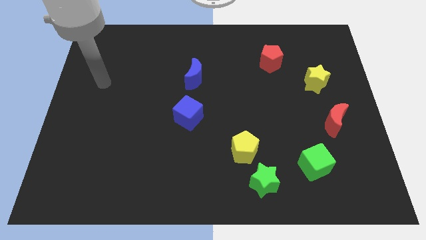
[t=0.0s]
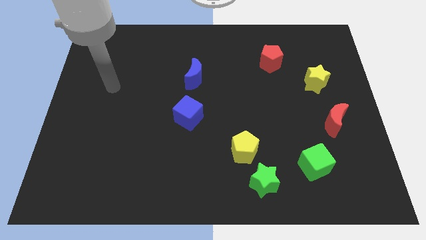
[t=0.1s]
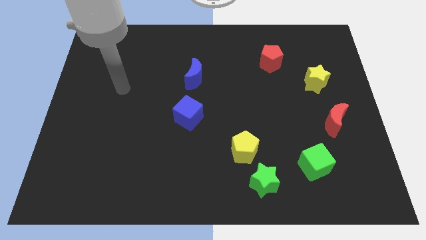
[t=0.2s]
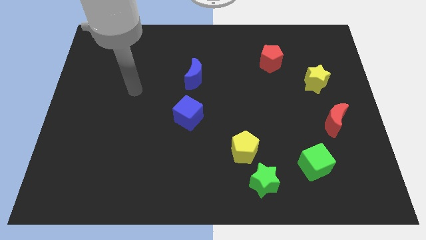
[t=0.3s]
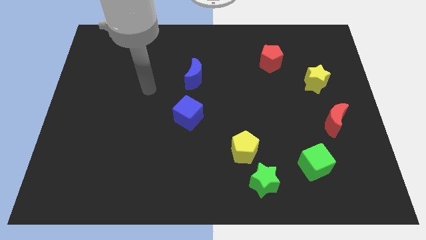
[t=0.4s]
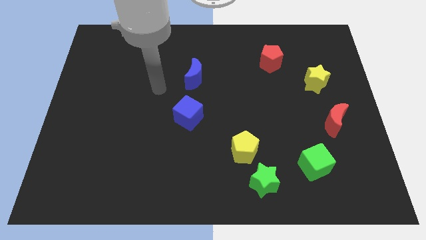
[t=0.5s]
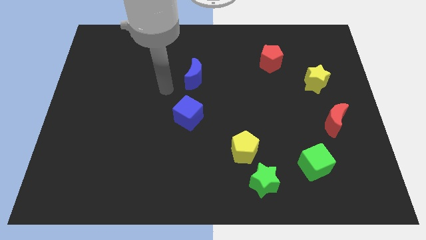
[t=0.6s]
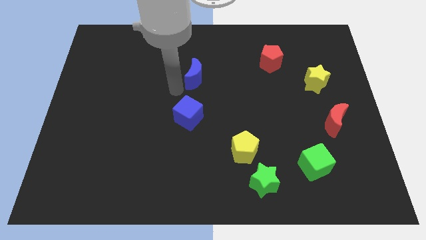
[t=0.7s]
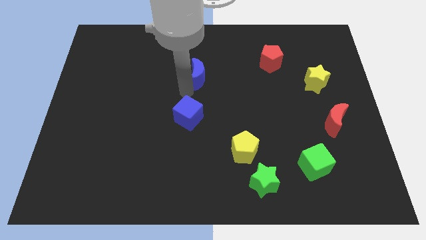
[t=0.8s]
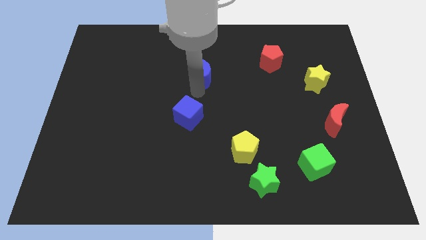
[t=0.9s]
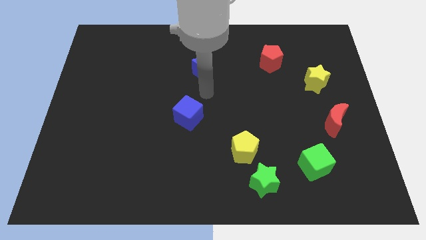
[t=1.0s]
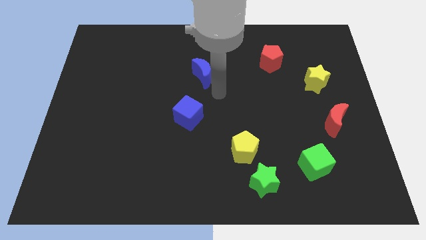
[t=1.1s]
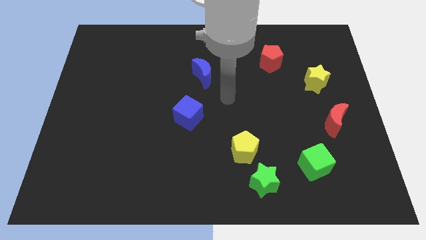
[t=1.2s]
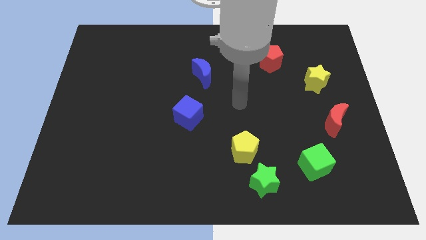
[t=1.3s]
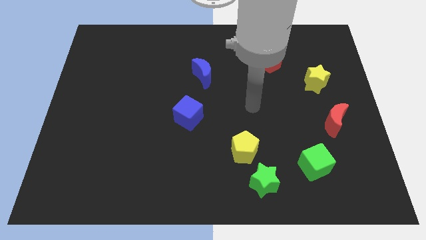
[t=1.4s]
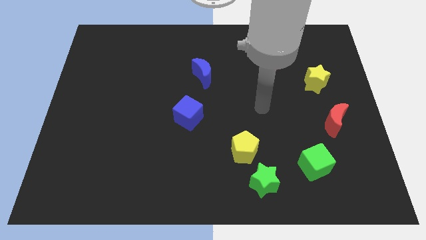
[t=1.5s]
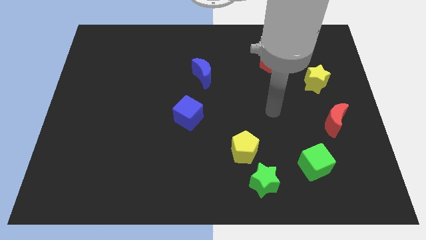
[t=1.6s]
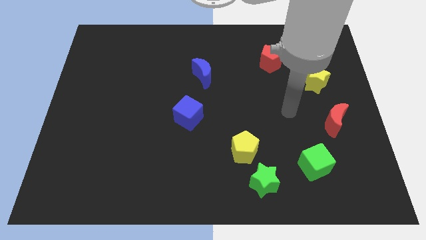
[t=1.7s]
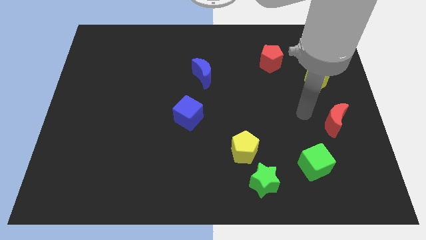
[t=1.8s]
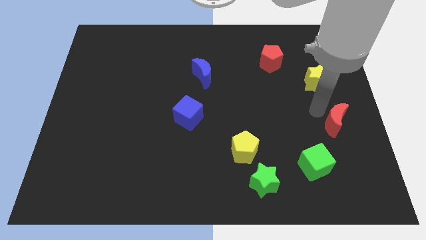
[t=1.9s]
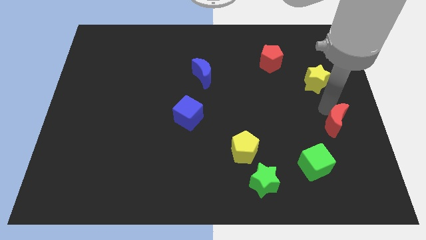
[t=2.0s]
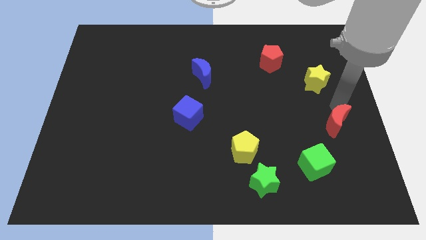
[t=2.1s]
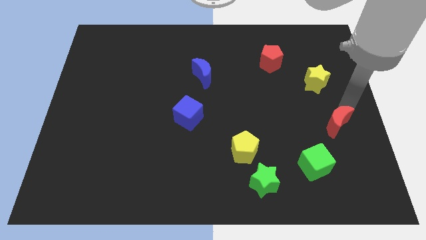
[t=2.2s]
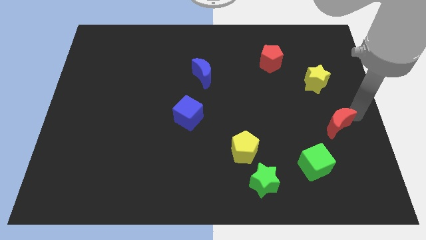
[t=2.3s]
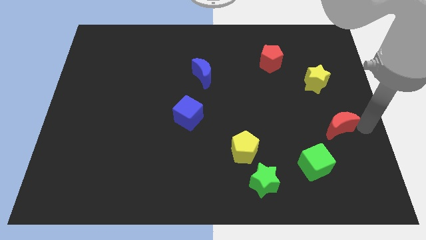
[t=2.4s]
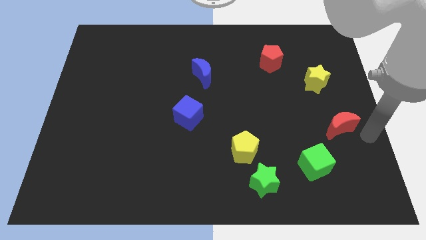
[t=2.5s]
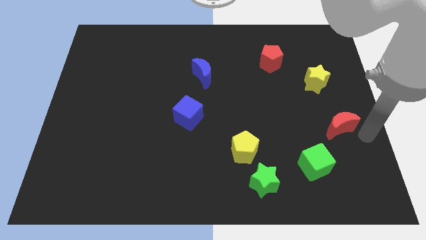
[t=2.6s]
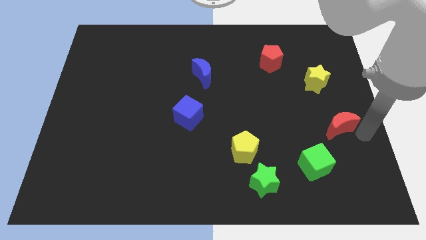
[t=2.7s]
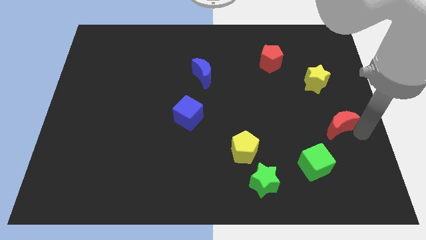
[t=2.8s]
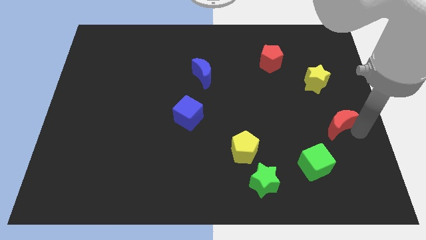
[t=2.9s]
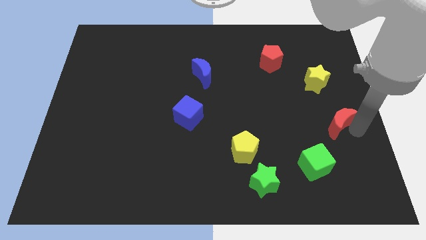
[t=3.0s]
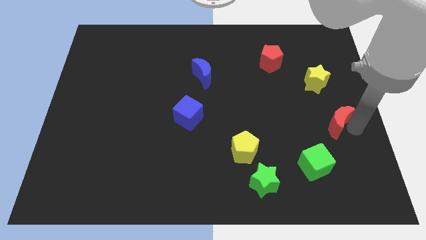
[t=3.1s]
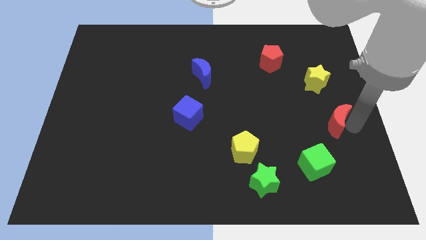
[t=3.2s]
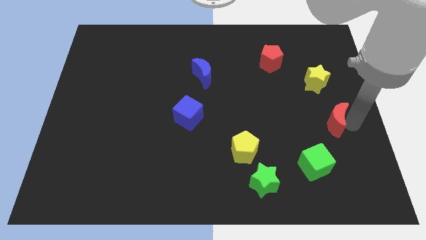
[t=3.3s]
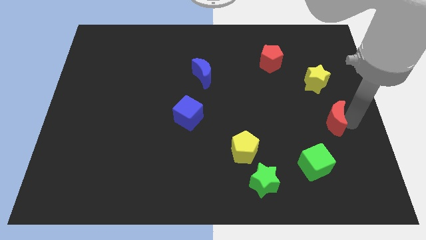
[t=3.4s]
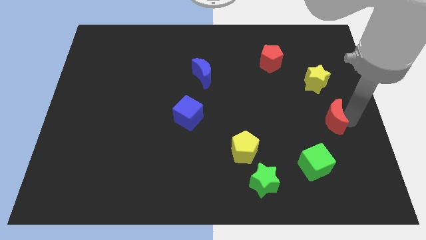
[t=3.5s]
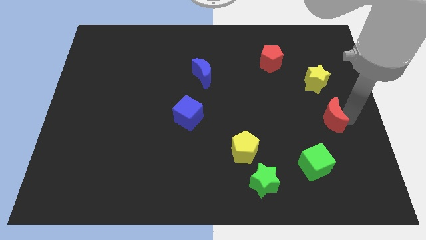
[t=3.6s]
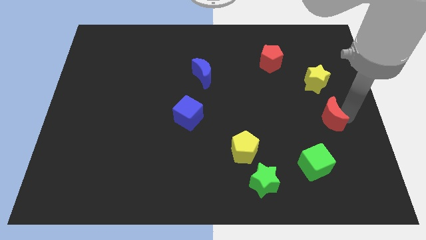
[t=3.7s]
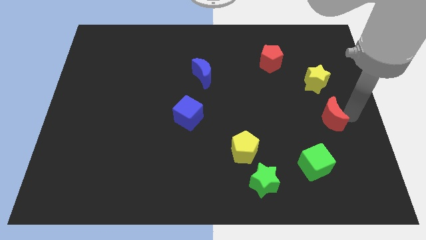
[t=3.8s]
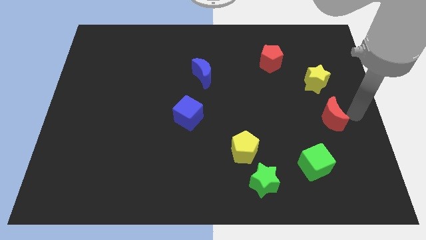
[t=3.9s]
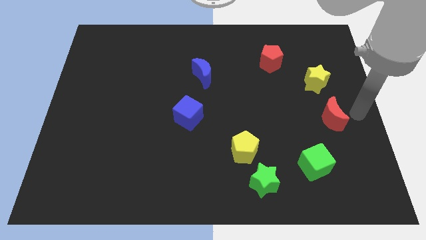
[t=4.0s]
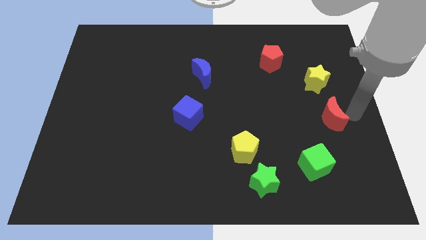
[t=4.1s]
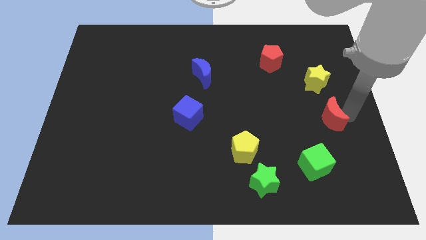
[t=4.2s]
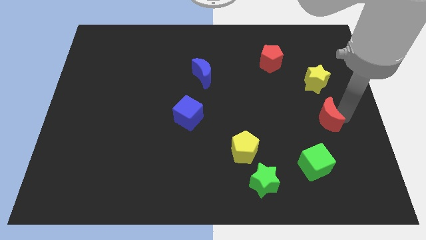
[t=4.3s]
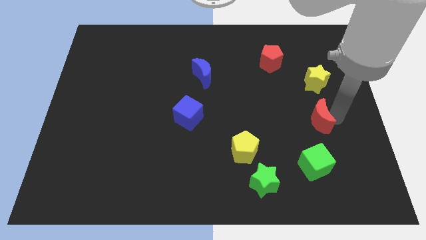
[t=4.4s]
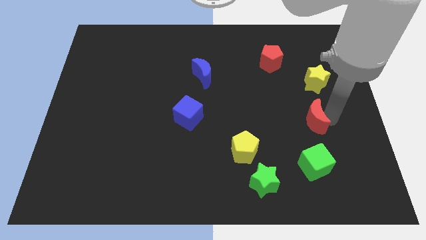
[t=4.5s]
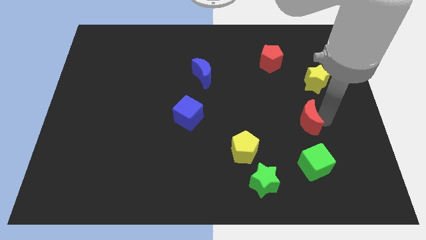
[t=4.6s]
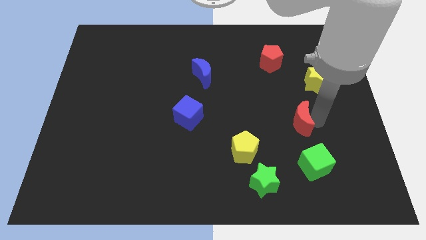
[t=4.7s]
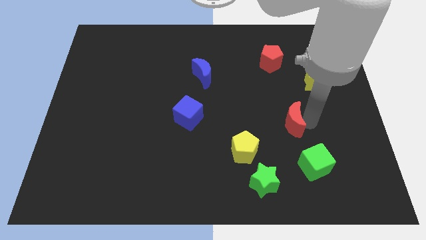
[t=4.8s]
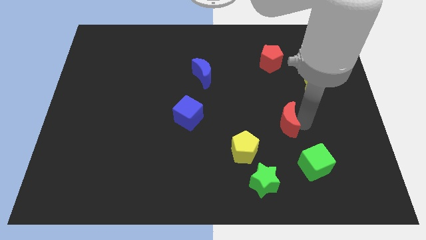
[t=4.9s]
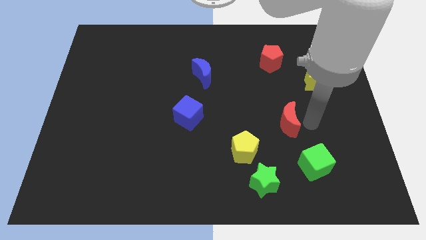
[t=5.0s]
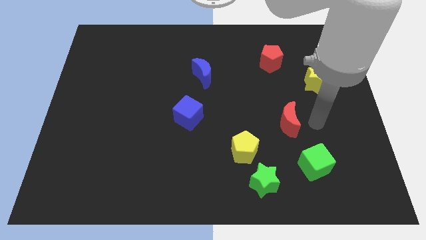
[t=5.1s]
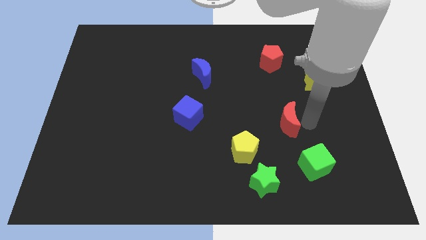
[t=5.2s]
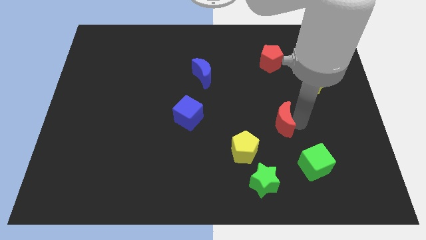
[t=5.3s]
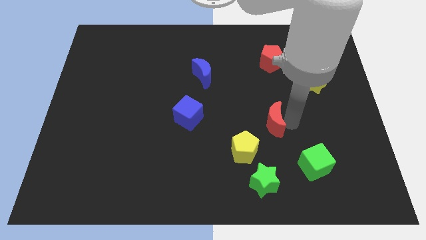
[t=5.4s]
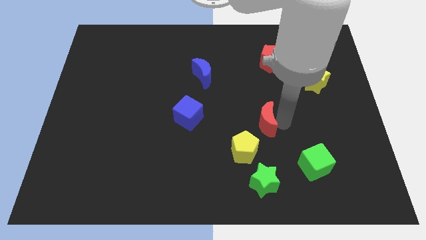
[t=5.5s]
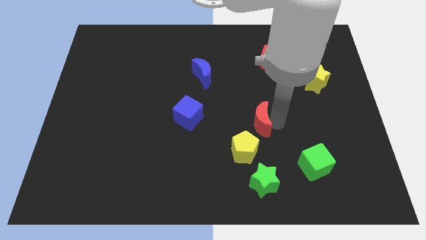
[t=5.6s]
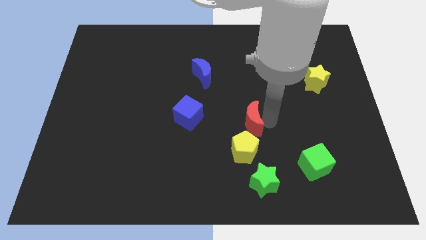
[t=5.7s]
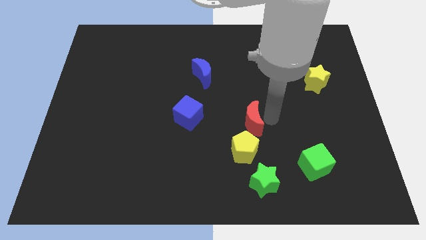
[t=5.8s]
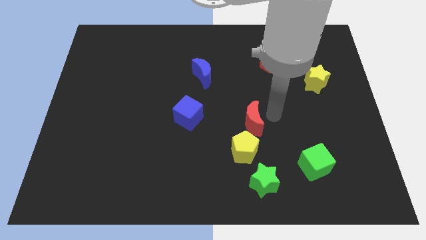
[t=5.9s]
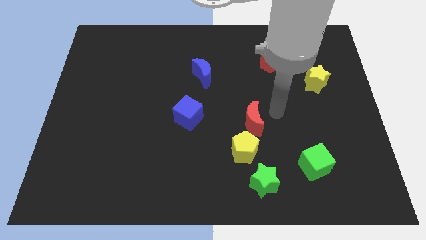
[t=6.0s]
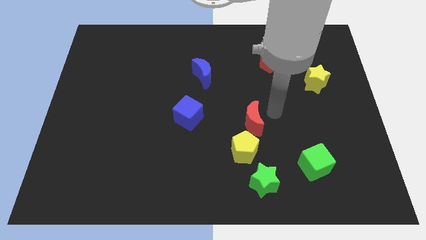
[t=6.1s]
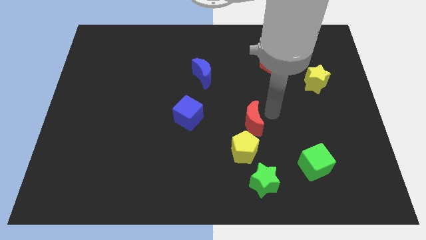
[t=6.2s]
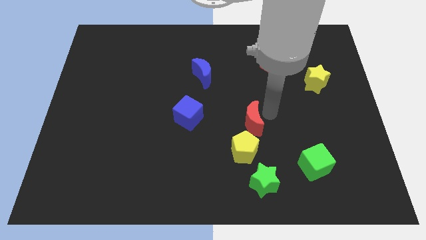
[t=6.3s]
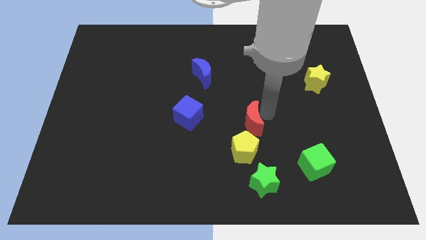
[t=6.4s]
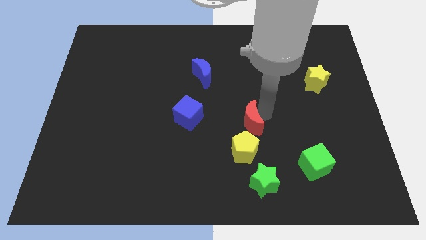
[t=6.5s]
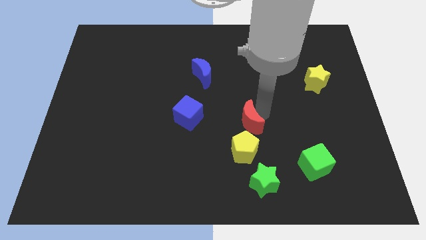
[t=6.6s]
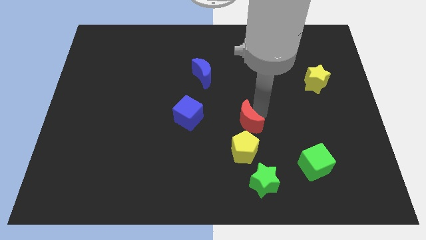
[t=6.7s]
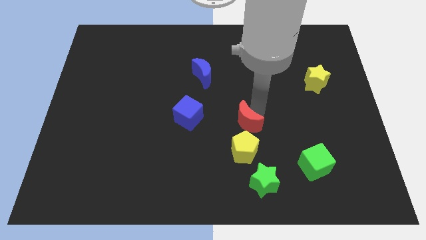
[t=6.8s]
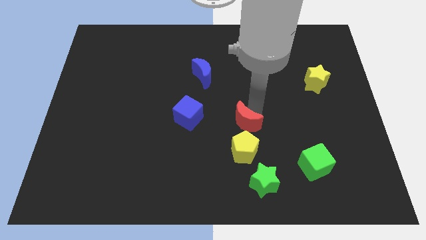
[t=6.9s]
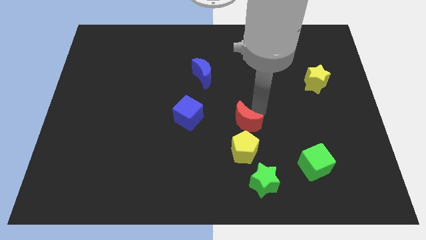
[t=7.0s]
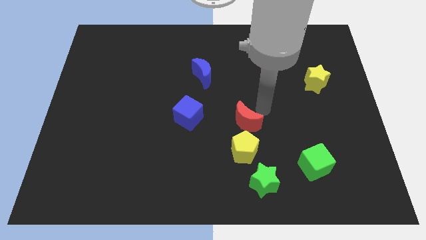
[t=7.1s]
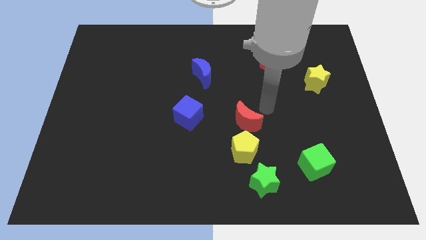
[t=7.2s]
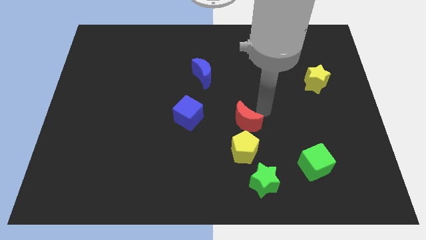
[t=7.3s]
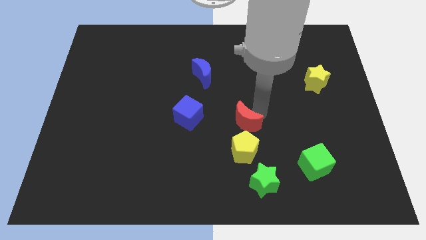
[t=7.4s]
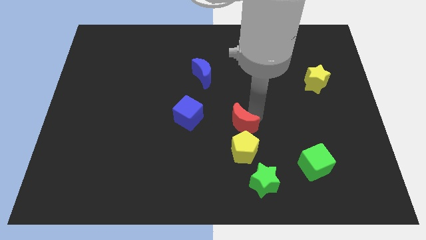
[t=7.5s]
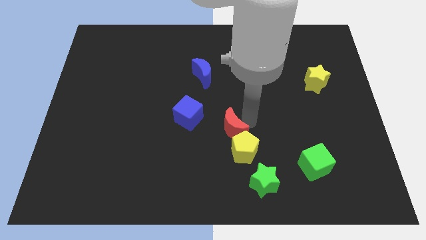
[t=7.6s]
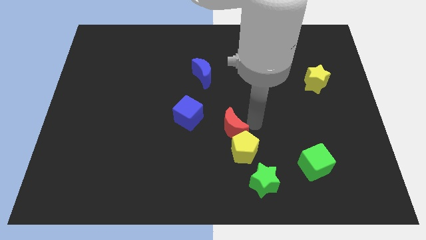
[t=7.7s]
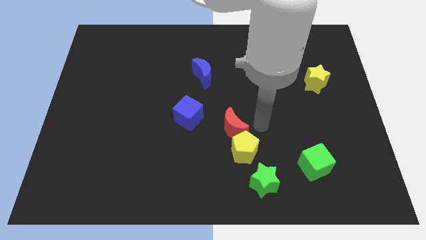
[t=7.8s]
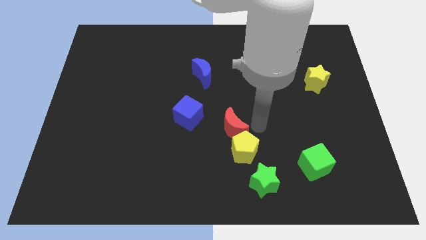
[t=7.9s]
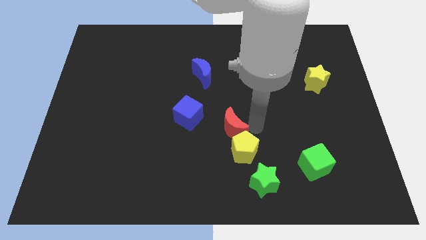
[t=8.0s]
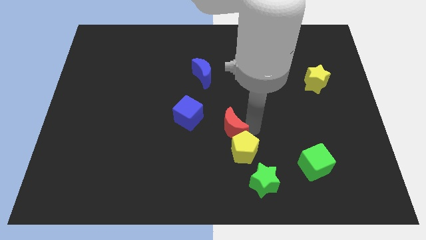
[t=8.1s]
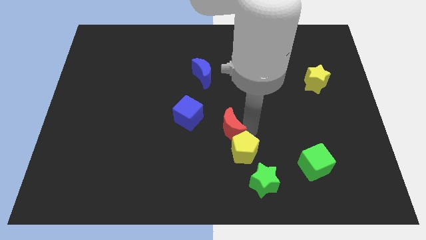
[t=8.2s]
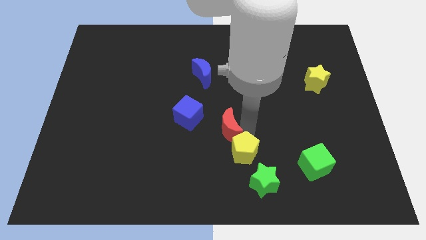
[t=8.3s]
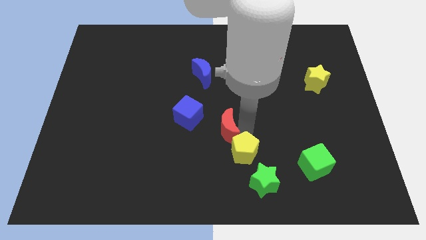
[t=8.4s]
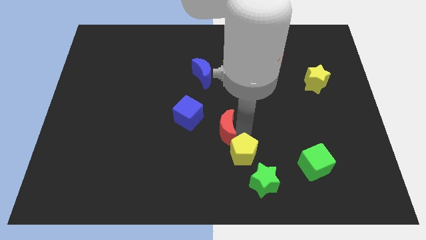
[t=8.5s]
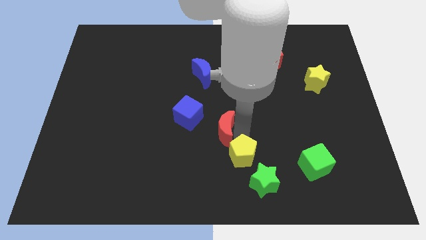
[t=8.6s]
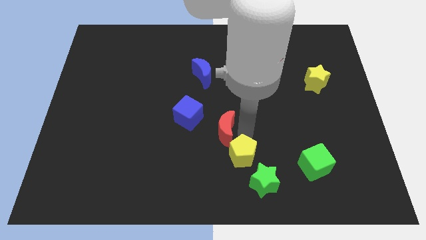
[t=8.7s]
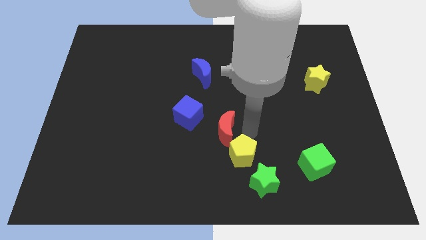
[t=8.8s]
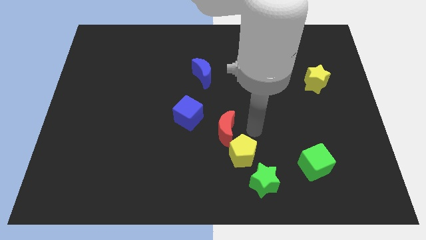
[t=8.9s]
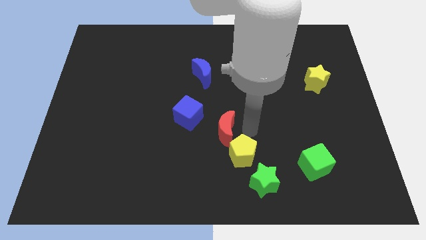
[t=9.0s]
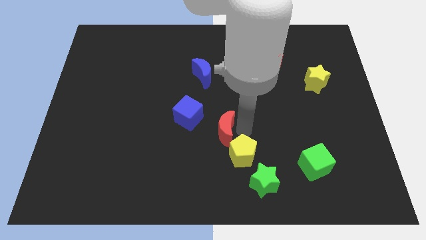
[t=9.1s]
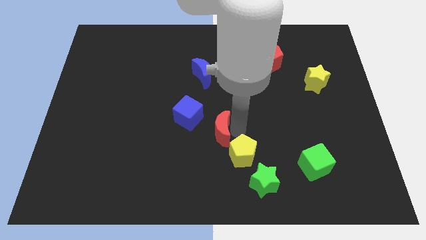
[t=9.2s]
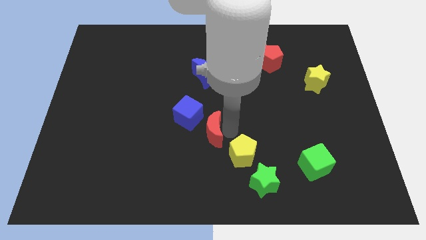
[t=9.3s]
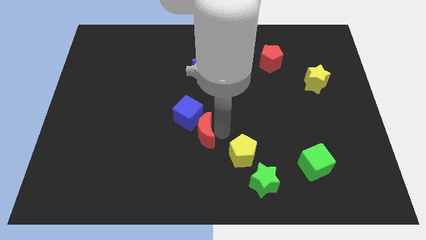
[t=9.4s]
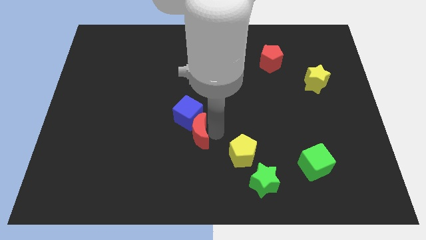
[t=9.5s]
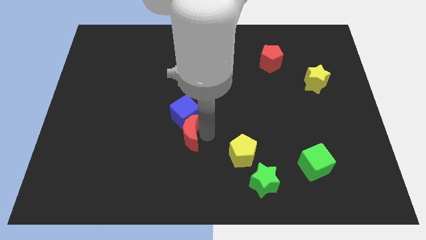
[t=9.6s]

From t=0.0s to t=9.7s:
push the red moon diagonally down and to the left of the blue cube
